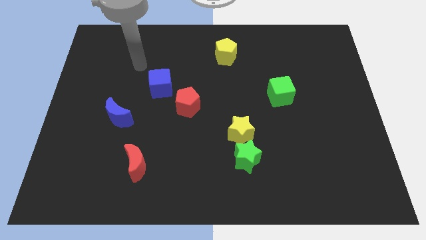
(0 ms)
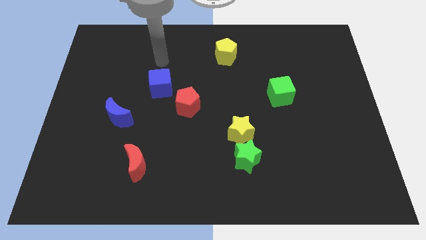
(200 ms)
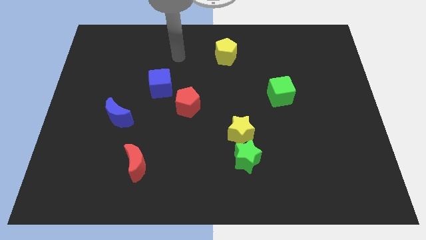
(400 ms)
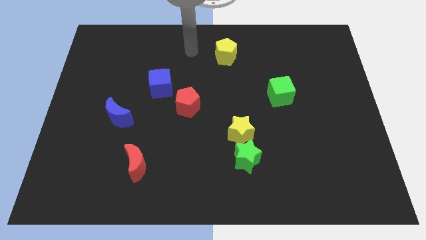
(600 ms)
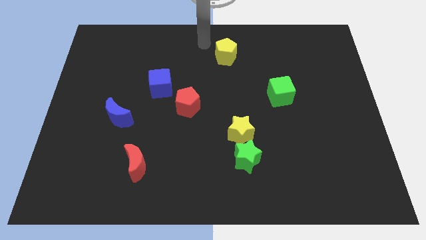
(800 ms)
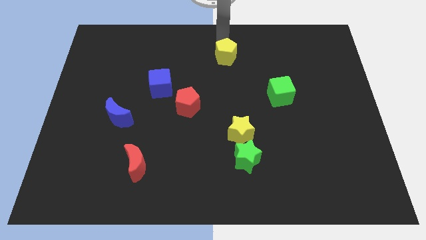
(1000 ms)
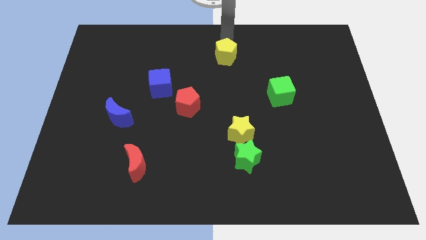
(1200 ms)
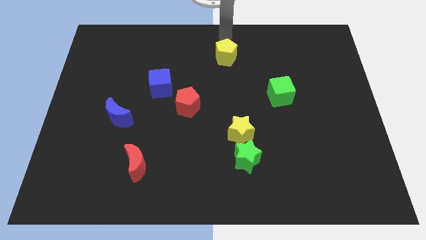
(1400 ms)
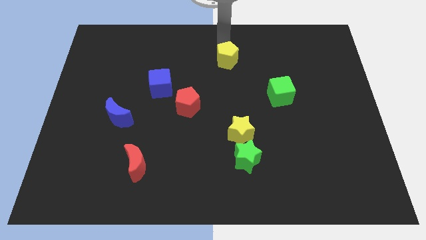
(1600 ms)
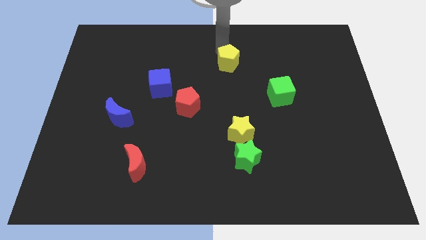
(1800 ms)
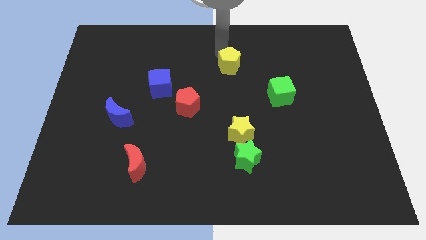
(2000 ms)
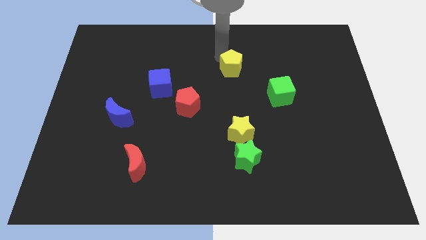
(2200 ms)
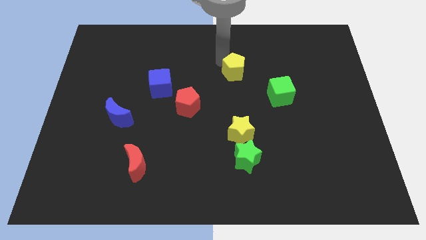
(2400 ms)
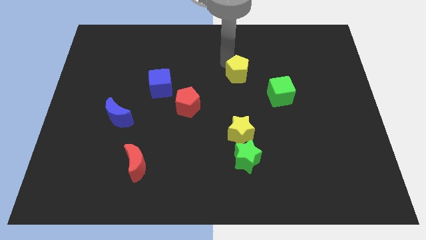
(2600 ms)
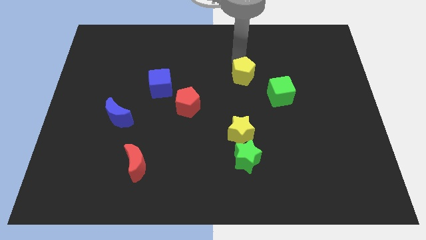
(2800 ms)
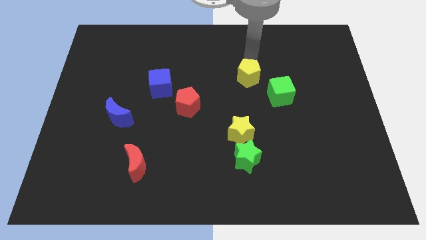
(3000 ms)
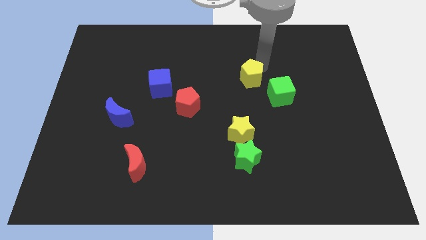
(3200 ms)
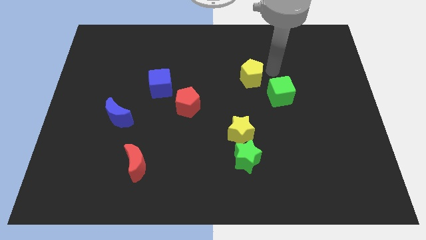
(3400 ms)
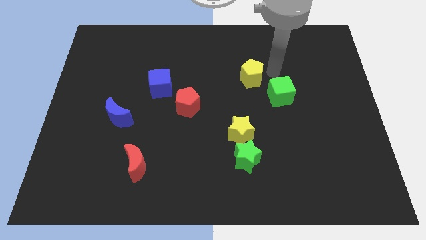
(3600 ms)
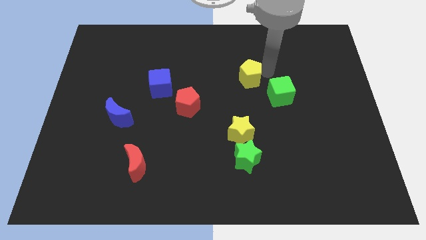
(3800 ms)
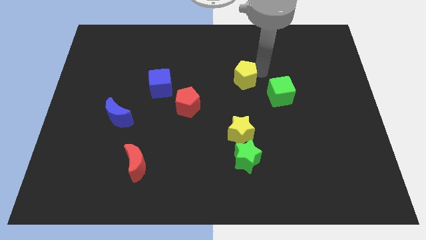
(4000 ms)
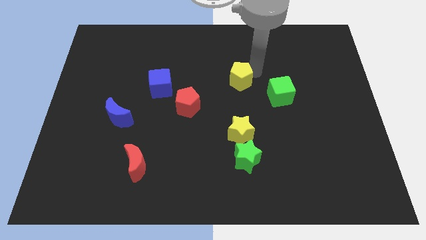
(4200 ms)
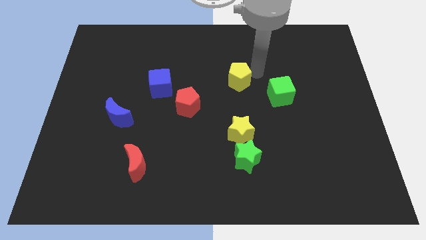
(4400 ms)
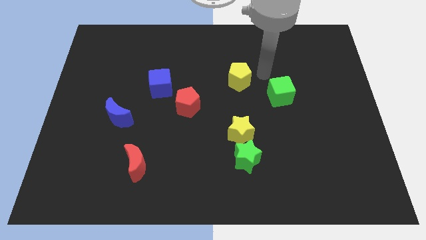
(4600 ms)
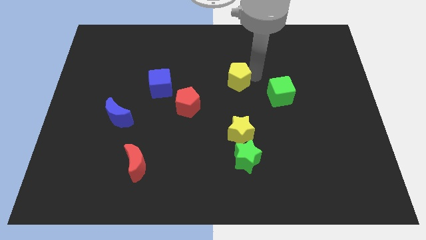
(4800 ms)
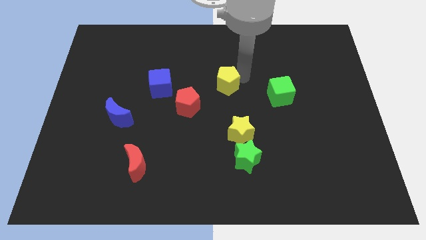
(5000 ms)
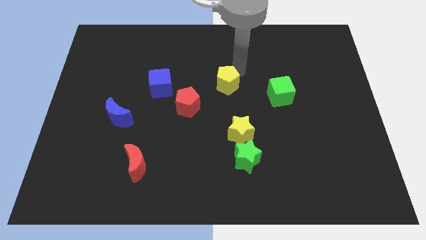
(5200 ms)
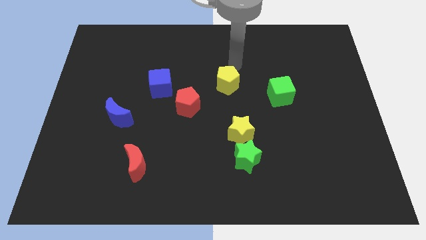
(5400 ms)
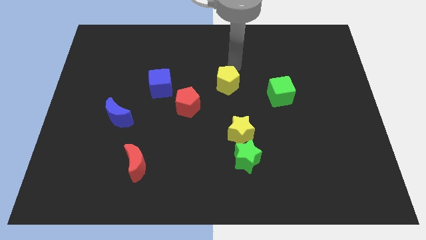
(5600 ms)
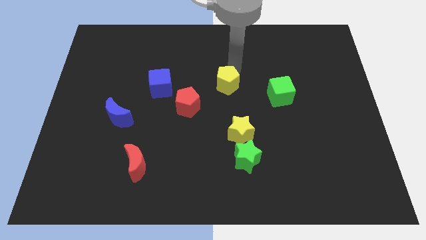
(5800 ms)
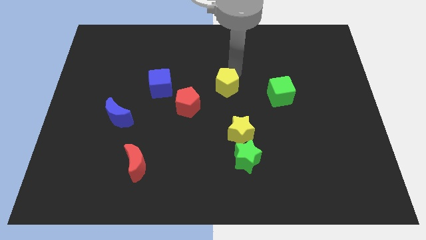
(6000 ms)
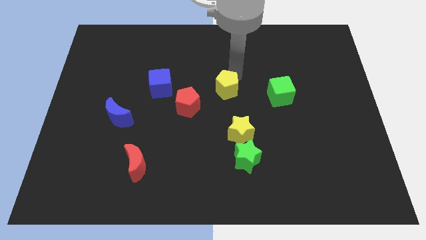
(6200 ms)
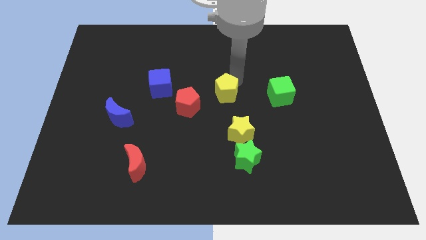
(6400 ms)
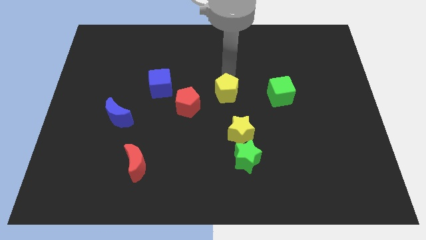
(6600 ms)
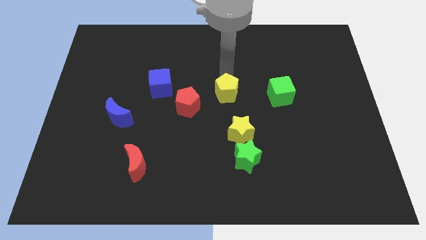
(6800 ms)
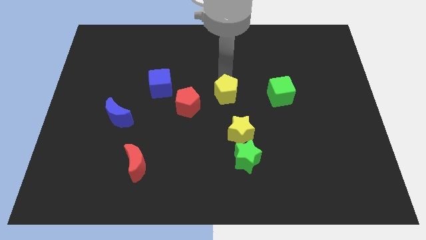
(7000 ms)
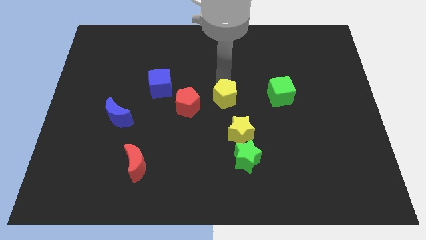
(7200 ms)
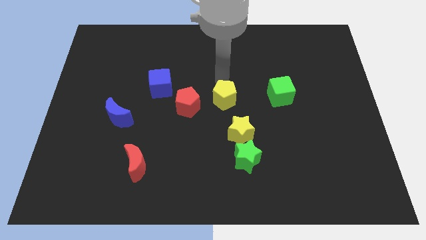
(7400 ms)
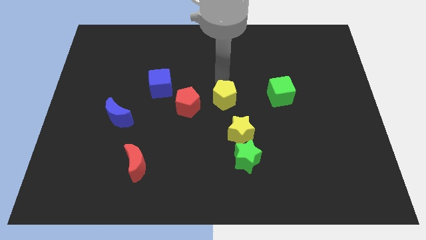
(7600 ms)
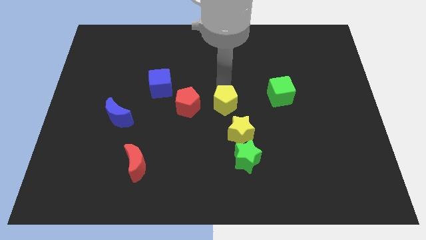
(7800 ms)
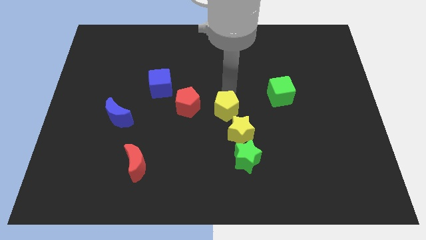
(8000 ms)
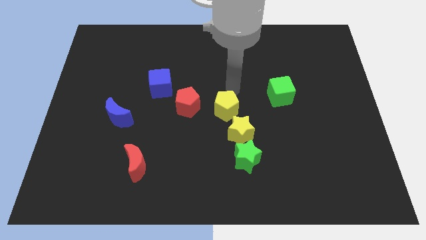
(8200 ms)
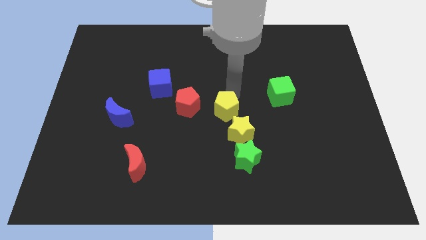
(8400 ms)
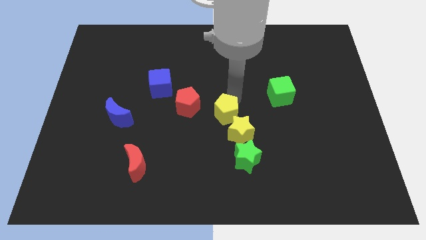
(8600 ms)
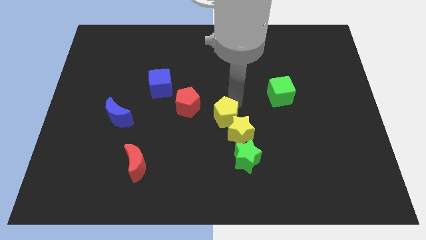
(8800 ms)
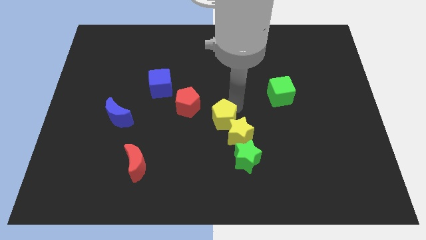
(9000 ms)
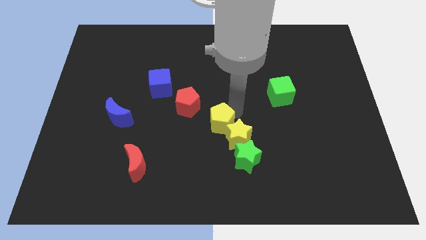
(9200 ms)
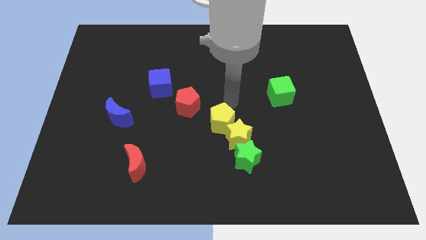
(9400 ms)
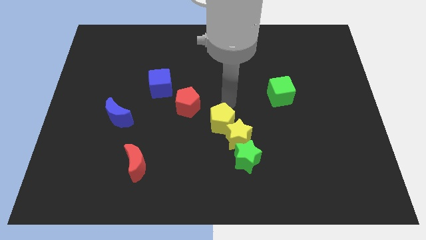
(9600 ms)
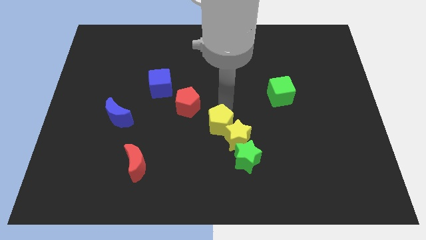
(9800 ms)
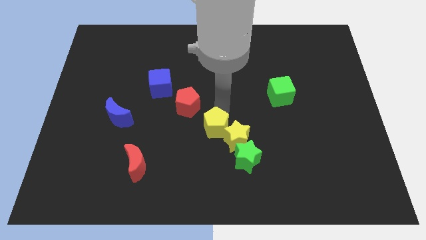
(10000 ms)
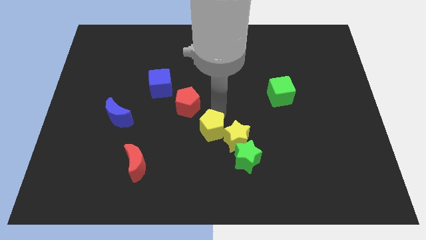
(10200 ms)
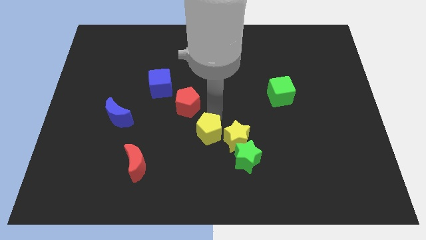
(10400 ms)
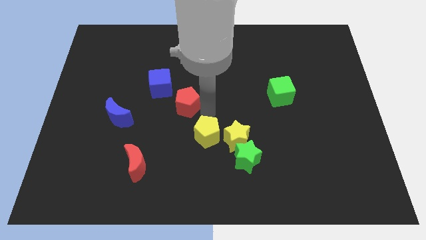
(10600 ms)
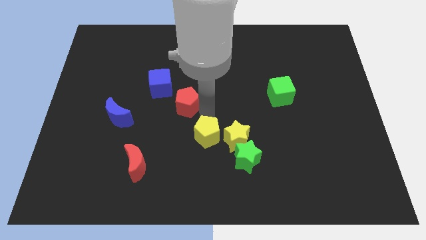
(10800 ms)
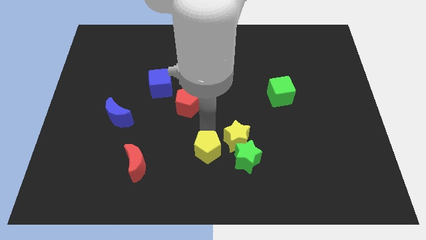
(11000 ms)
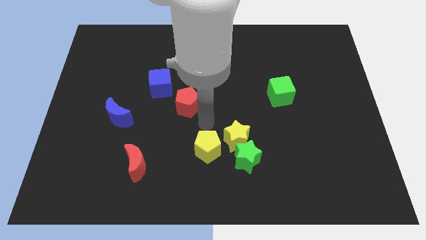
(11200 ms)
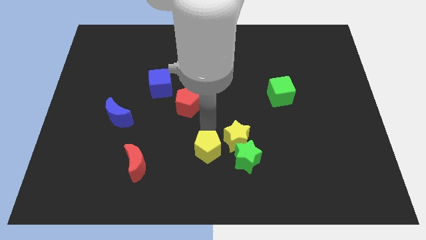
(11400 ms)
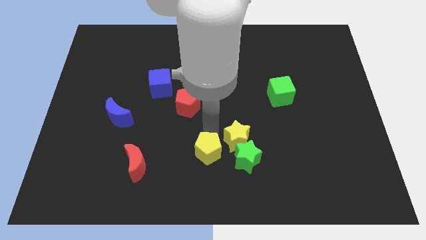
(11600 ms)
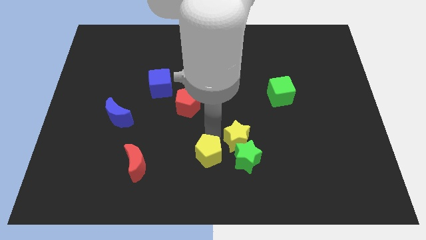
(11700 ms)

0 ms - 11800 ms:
put the yellow pentagon to the bottom
